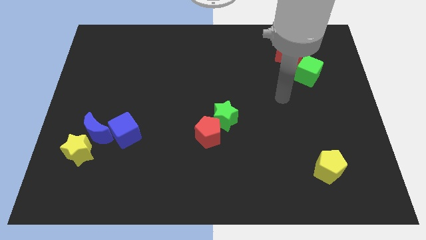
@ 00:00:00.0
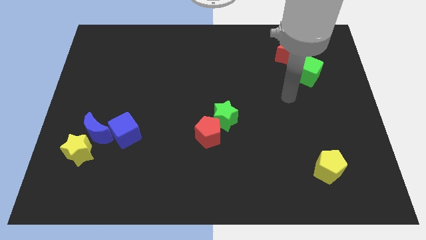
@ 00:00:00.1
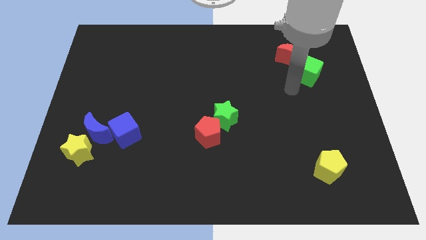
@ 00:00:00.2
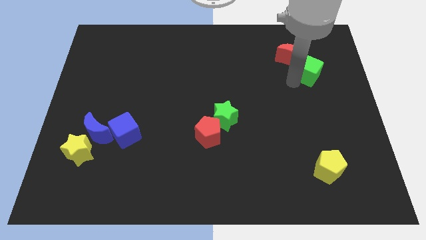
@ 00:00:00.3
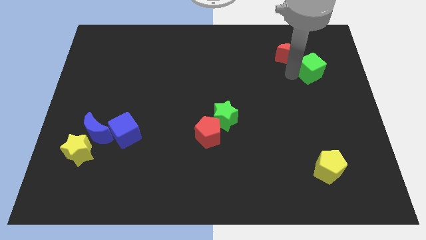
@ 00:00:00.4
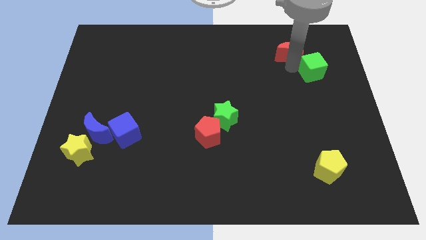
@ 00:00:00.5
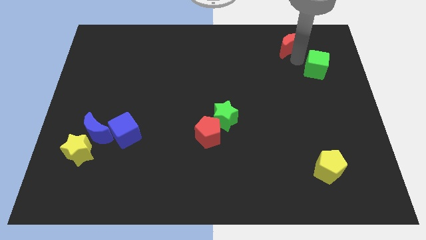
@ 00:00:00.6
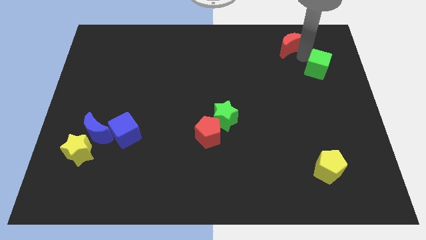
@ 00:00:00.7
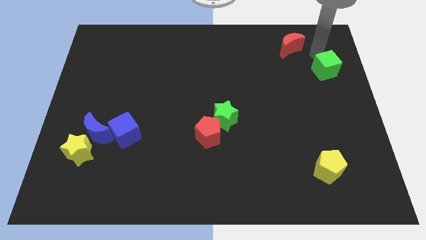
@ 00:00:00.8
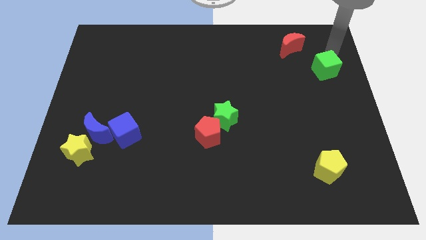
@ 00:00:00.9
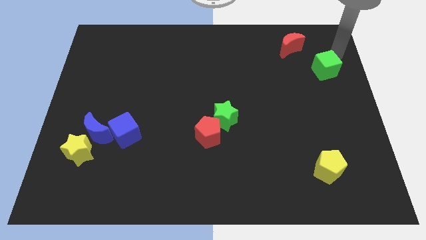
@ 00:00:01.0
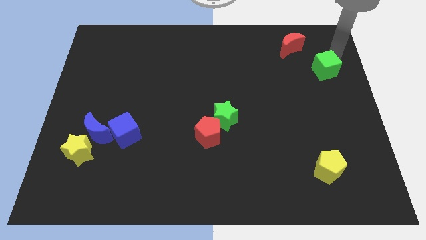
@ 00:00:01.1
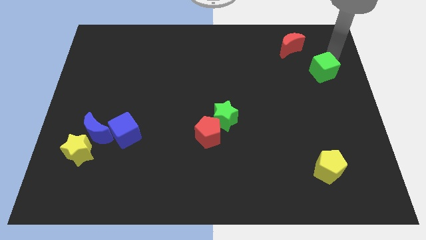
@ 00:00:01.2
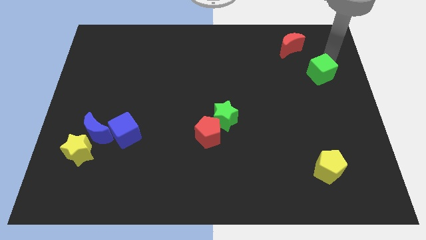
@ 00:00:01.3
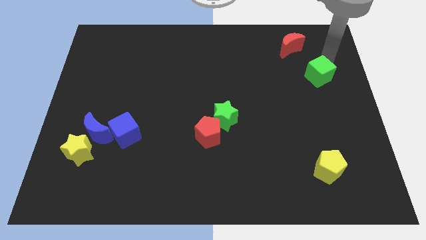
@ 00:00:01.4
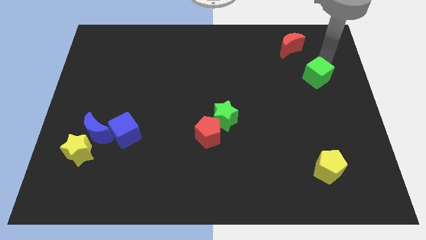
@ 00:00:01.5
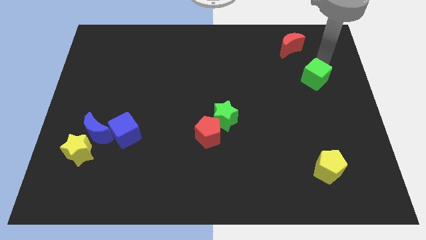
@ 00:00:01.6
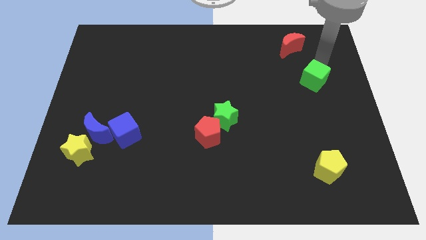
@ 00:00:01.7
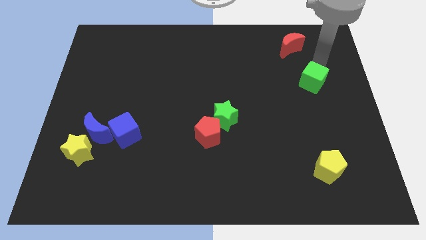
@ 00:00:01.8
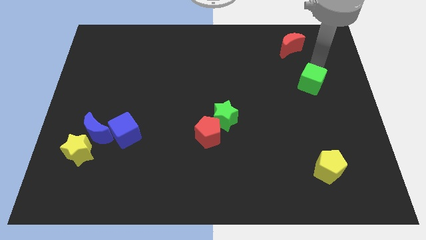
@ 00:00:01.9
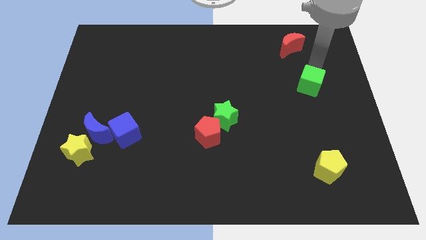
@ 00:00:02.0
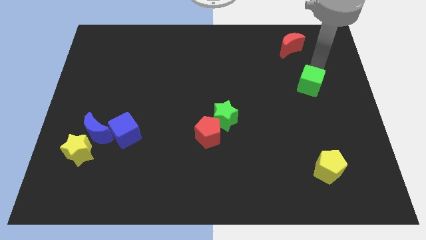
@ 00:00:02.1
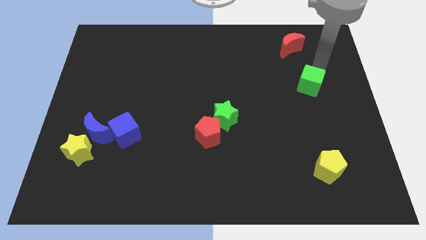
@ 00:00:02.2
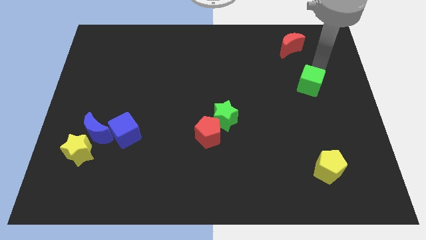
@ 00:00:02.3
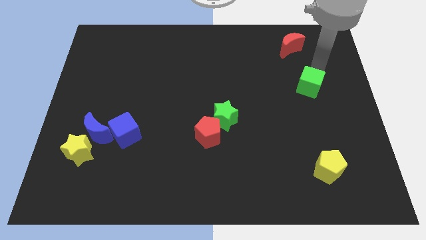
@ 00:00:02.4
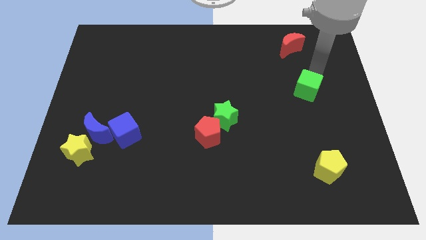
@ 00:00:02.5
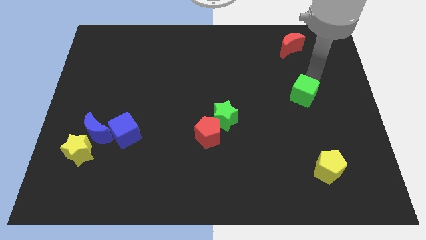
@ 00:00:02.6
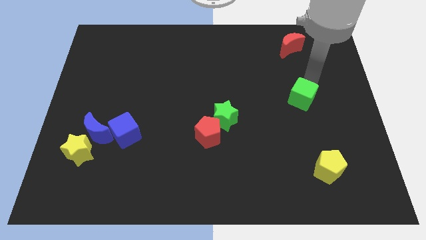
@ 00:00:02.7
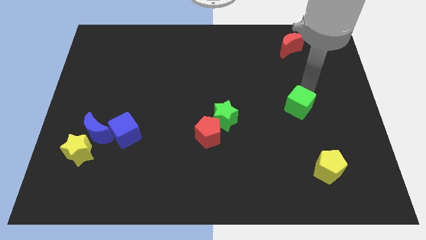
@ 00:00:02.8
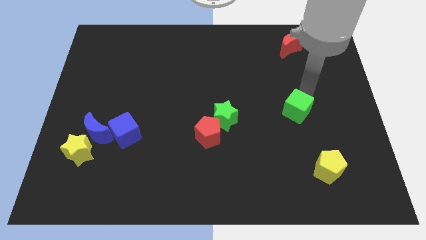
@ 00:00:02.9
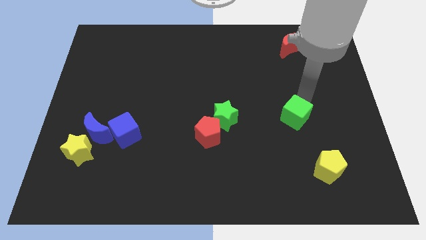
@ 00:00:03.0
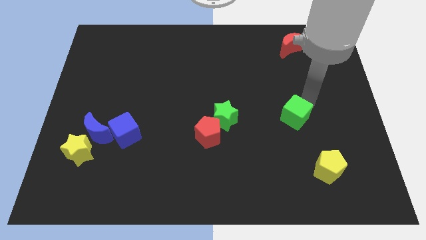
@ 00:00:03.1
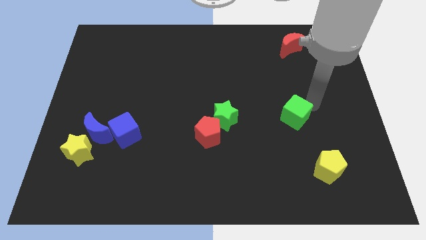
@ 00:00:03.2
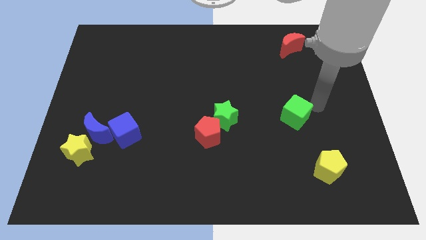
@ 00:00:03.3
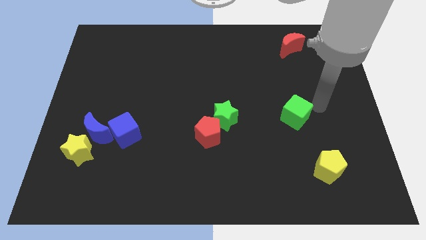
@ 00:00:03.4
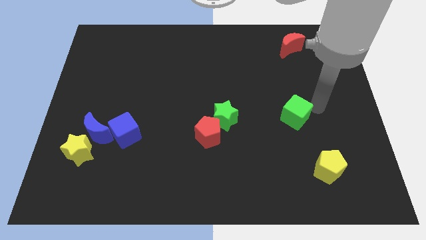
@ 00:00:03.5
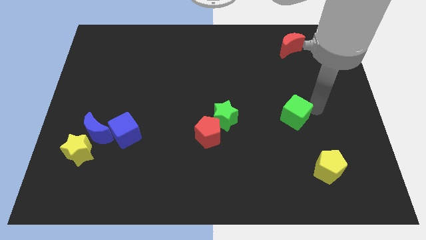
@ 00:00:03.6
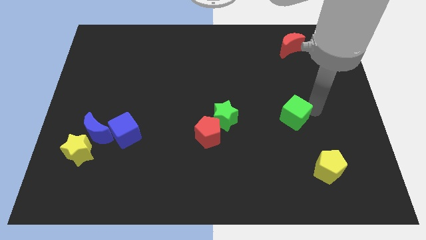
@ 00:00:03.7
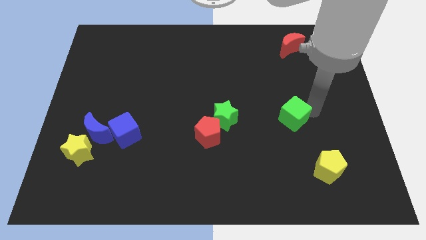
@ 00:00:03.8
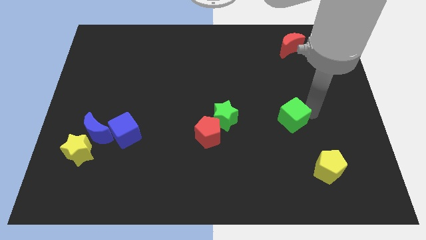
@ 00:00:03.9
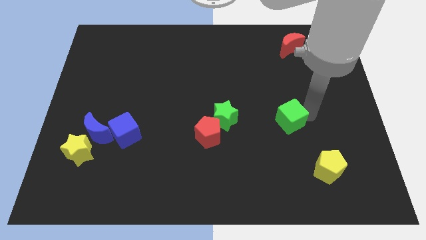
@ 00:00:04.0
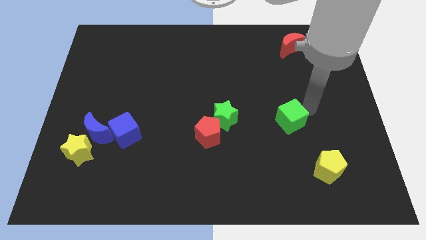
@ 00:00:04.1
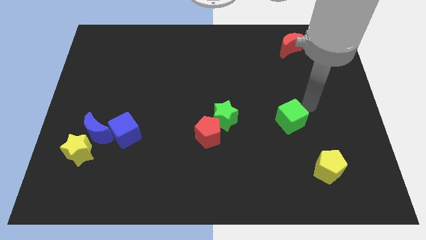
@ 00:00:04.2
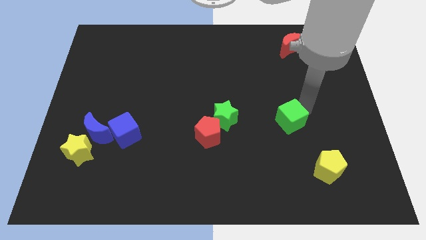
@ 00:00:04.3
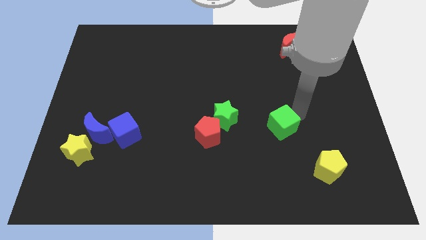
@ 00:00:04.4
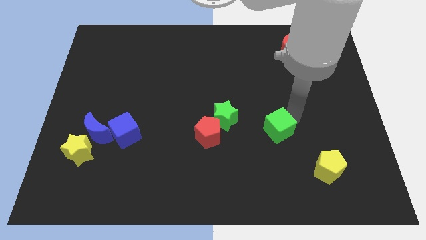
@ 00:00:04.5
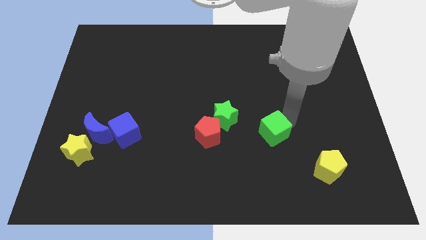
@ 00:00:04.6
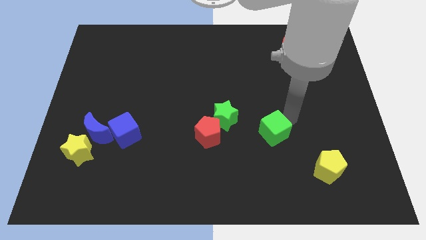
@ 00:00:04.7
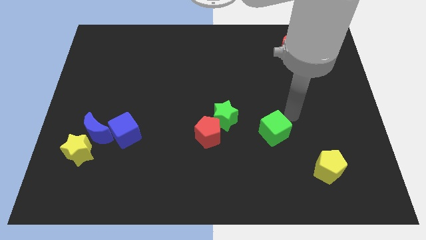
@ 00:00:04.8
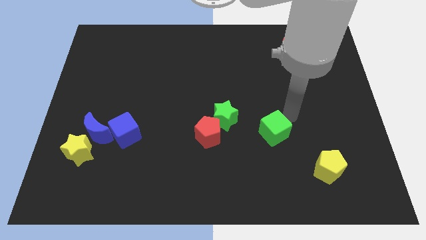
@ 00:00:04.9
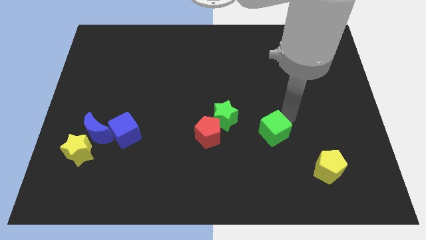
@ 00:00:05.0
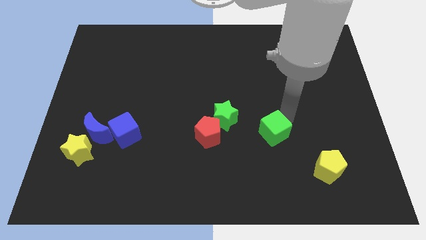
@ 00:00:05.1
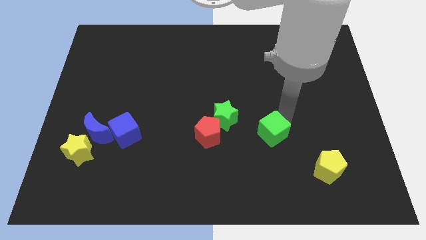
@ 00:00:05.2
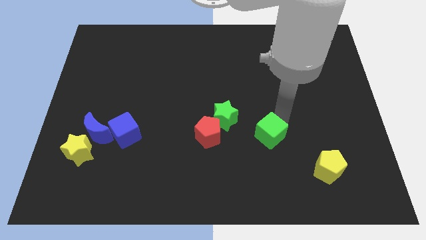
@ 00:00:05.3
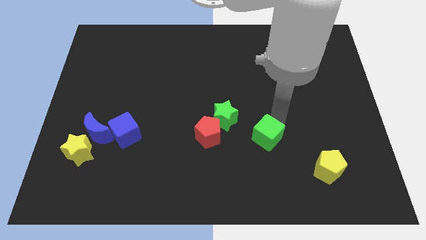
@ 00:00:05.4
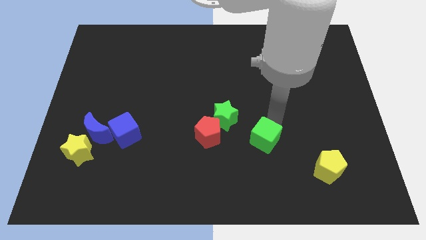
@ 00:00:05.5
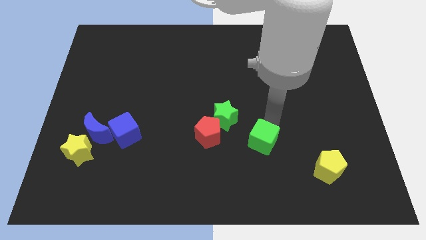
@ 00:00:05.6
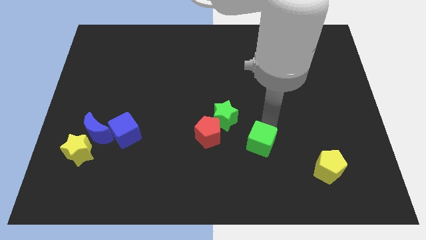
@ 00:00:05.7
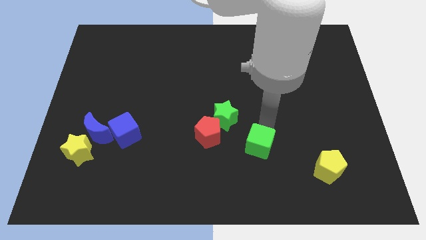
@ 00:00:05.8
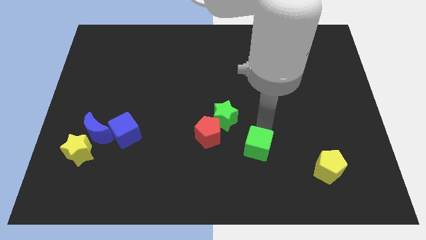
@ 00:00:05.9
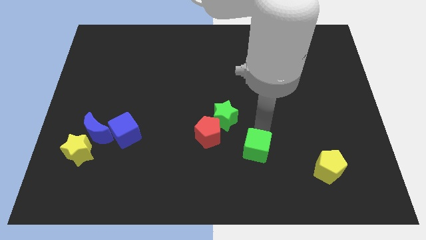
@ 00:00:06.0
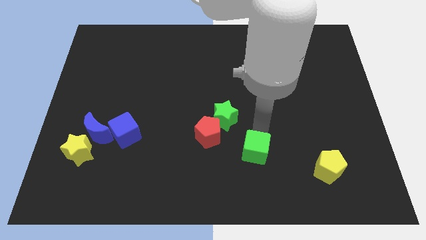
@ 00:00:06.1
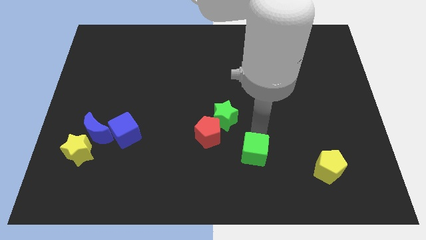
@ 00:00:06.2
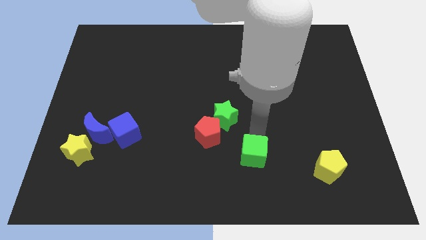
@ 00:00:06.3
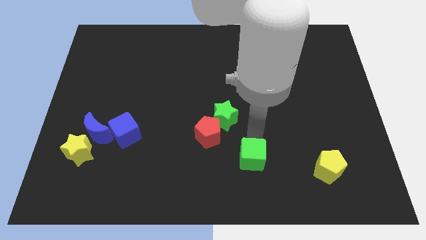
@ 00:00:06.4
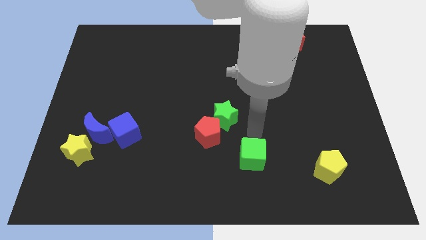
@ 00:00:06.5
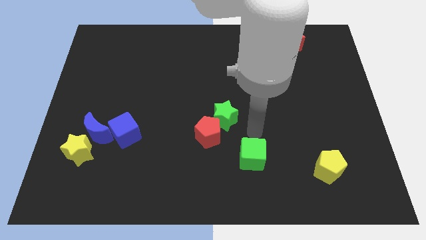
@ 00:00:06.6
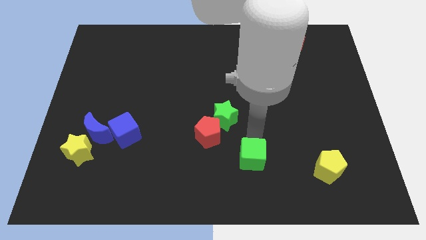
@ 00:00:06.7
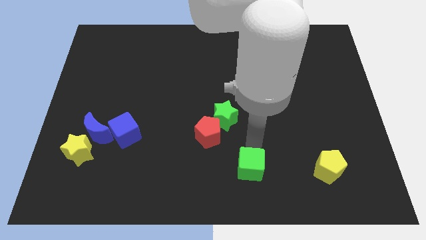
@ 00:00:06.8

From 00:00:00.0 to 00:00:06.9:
put the green cube to the bottom
